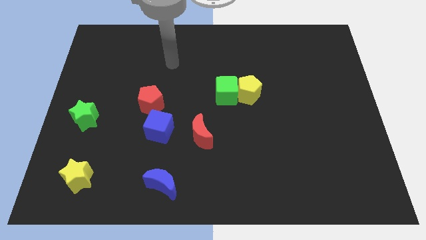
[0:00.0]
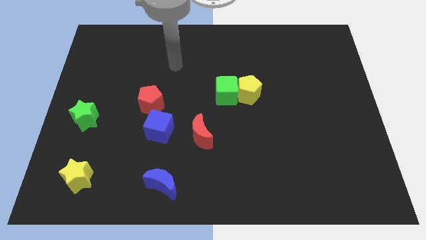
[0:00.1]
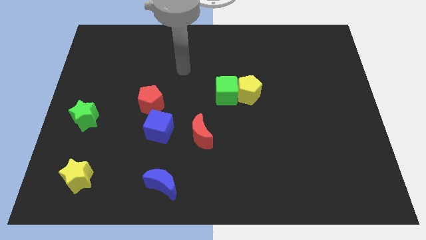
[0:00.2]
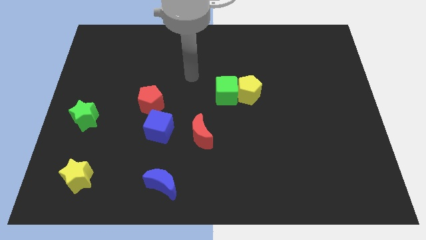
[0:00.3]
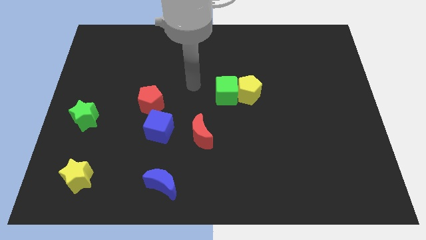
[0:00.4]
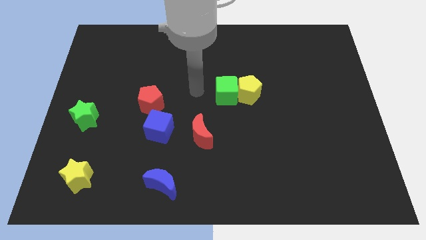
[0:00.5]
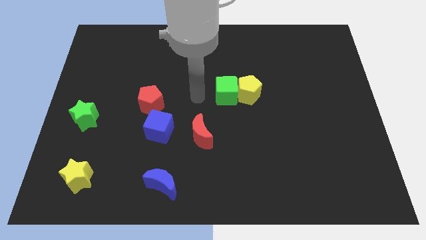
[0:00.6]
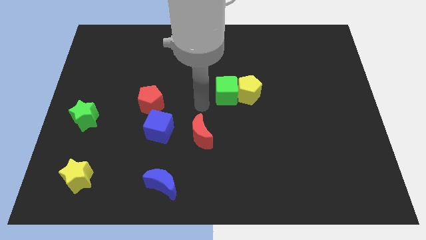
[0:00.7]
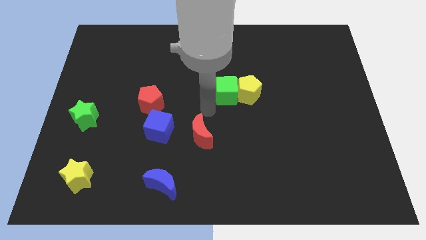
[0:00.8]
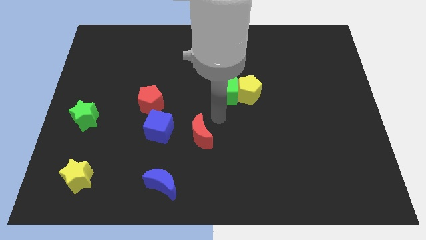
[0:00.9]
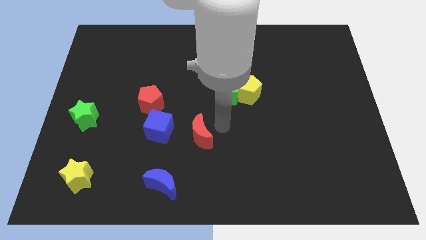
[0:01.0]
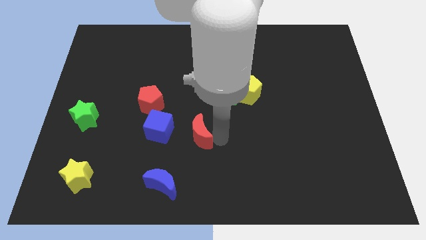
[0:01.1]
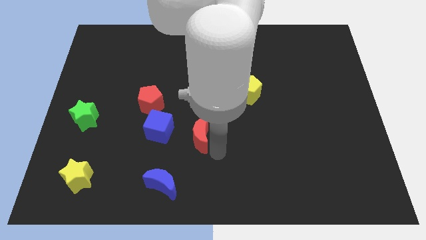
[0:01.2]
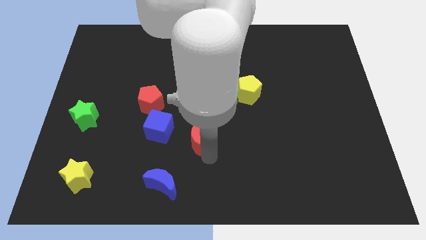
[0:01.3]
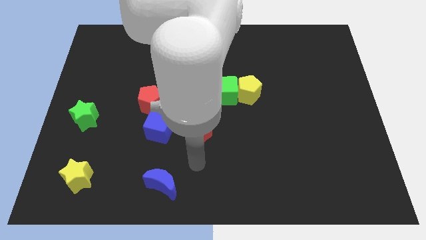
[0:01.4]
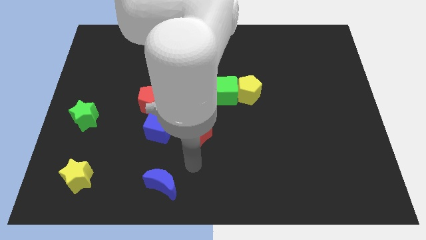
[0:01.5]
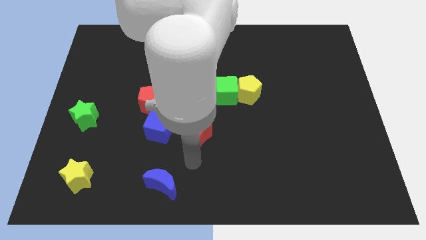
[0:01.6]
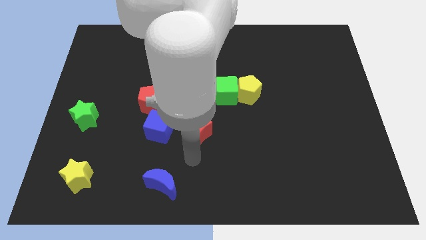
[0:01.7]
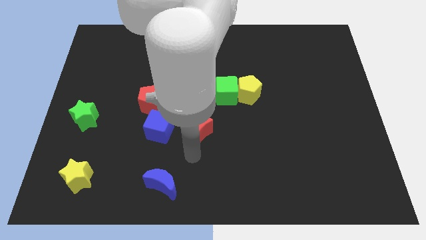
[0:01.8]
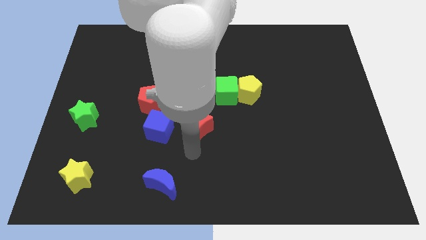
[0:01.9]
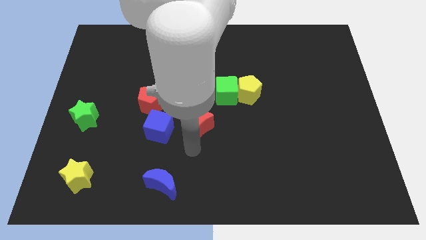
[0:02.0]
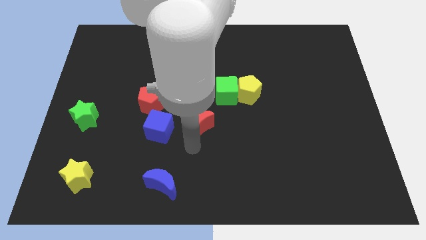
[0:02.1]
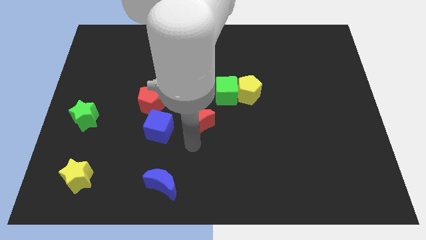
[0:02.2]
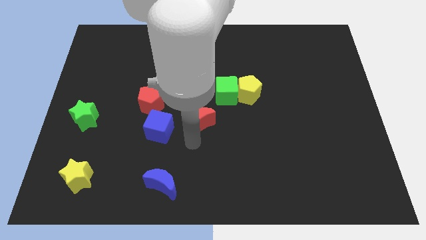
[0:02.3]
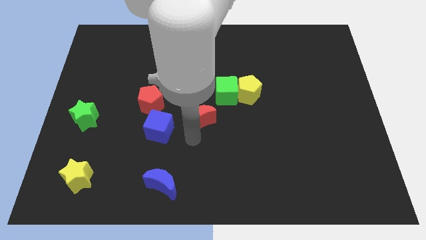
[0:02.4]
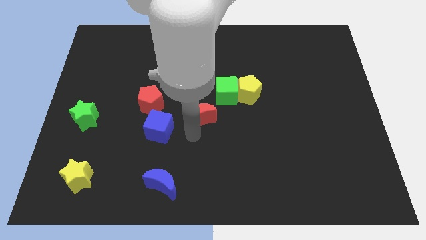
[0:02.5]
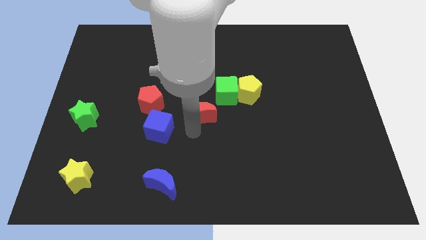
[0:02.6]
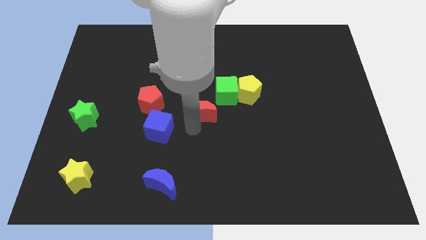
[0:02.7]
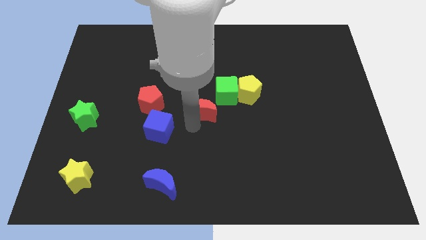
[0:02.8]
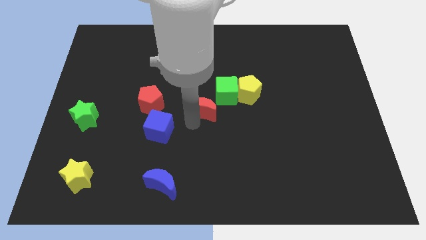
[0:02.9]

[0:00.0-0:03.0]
slightly slide the red moon upwards

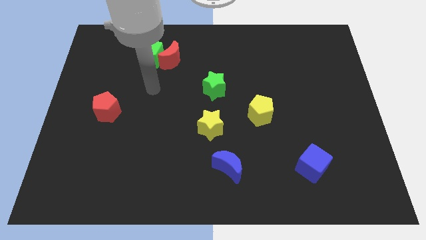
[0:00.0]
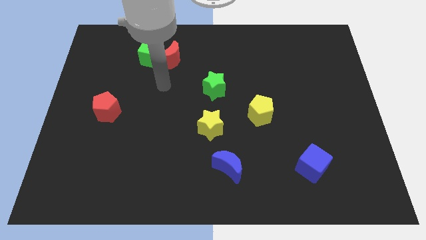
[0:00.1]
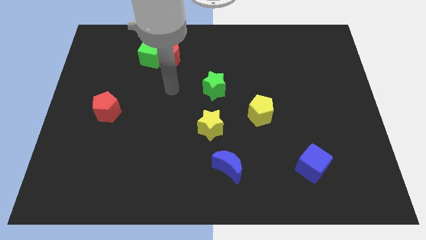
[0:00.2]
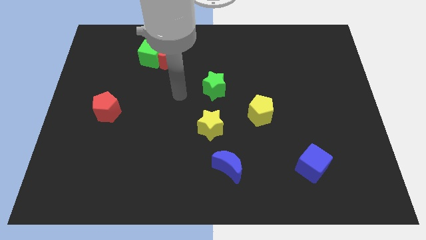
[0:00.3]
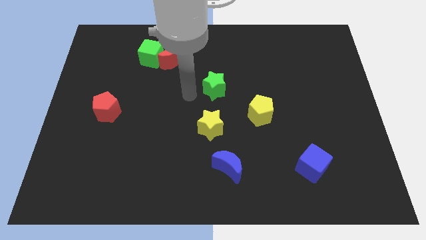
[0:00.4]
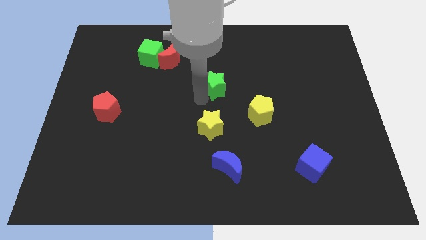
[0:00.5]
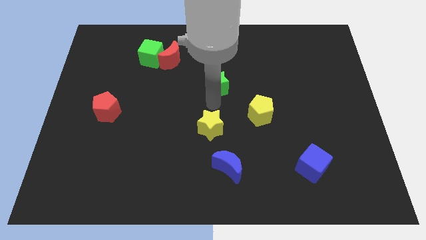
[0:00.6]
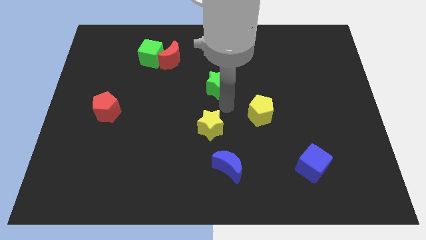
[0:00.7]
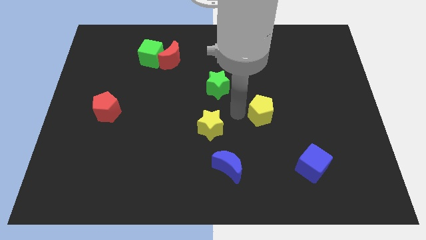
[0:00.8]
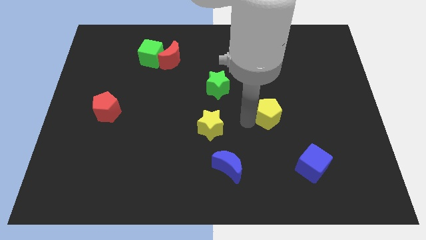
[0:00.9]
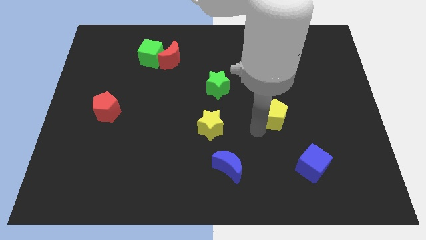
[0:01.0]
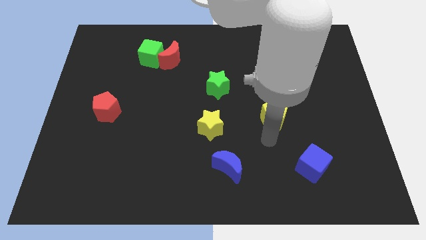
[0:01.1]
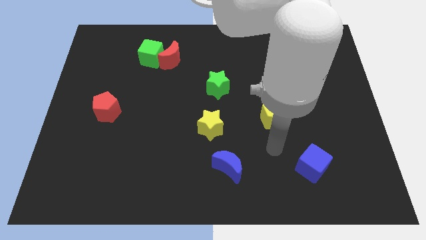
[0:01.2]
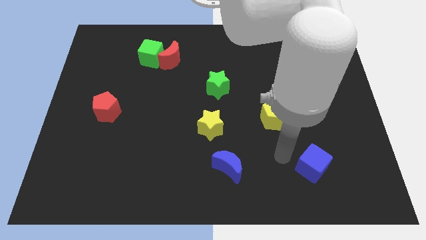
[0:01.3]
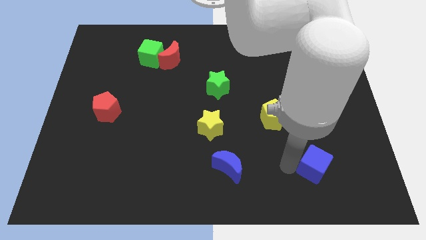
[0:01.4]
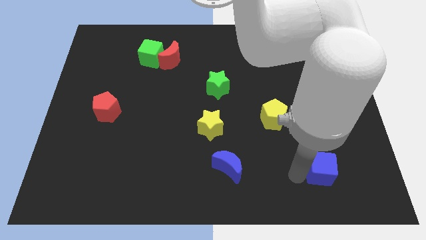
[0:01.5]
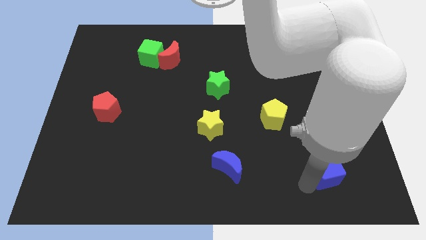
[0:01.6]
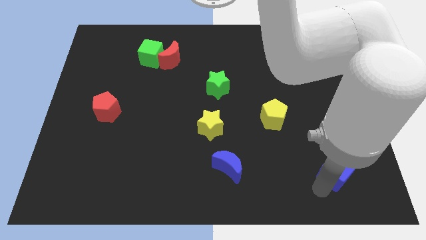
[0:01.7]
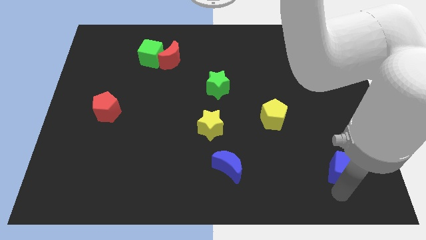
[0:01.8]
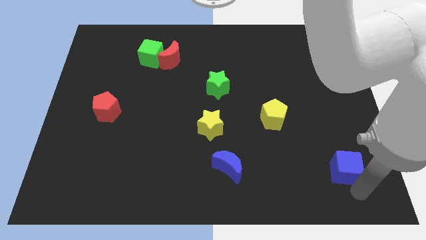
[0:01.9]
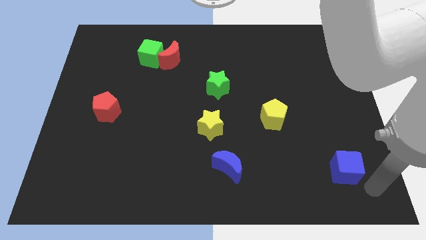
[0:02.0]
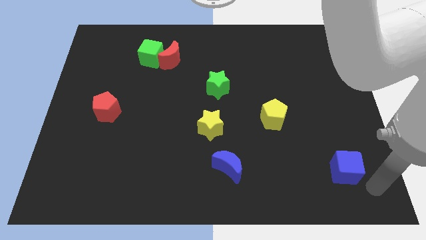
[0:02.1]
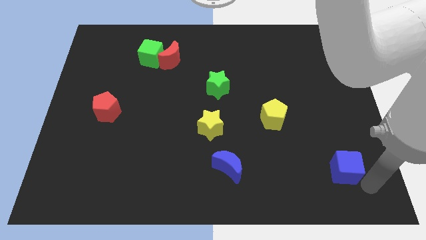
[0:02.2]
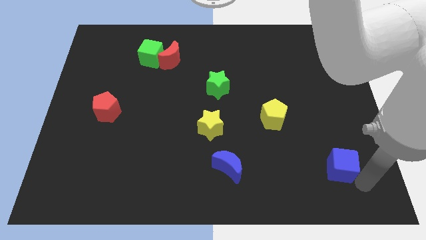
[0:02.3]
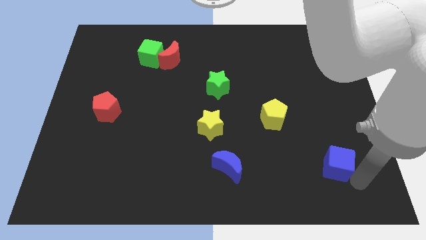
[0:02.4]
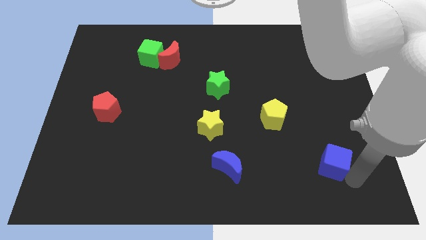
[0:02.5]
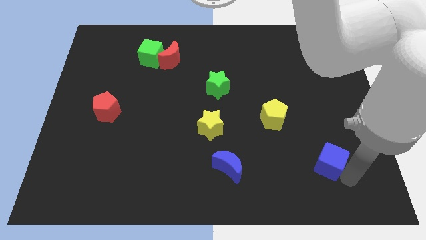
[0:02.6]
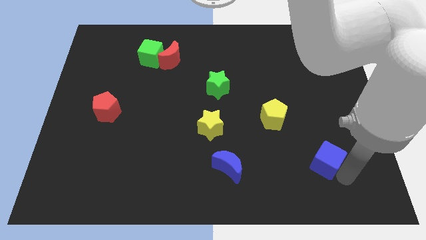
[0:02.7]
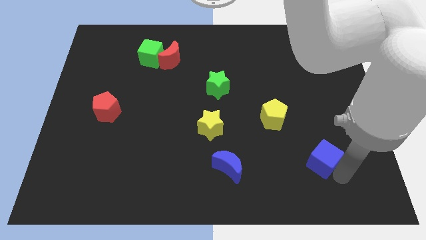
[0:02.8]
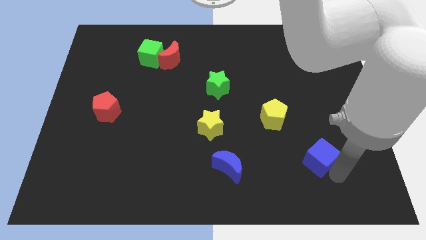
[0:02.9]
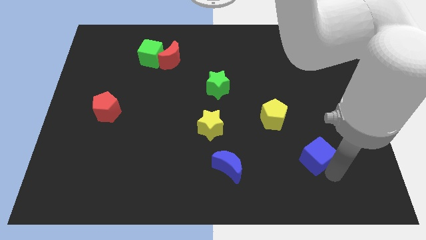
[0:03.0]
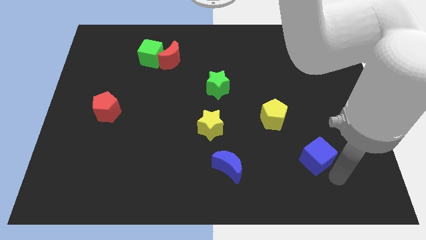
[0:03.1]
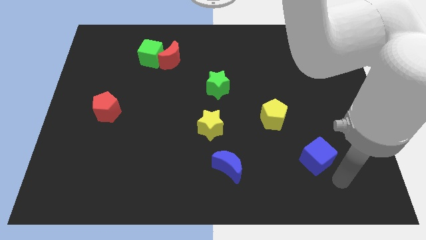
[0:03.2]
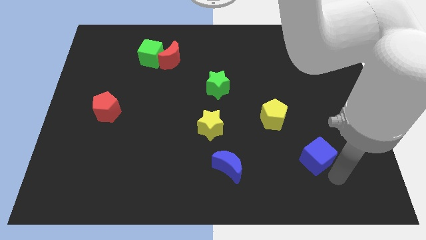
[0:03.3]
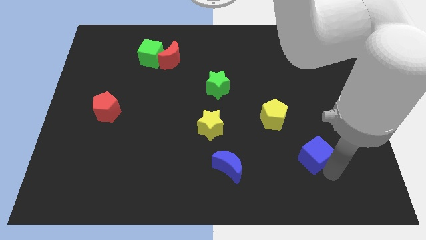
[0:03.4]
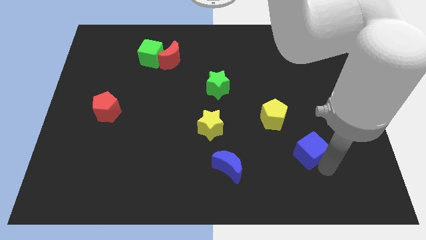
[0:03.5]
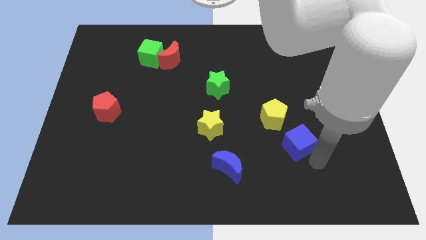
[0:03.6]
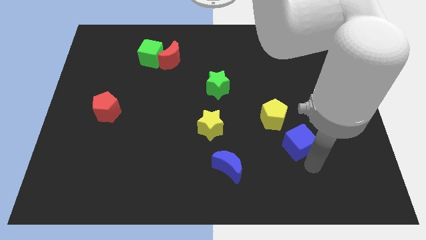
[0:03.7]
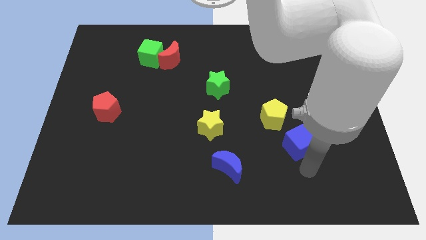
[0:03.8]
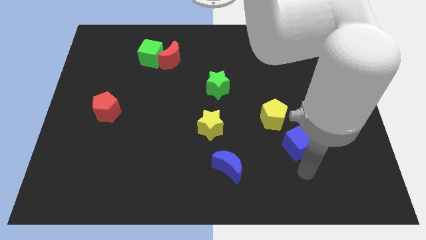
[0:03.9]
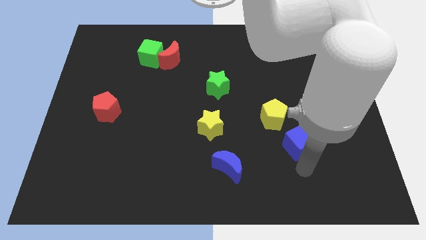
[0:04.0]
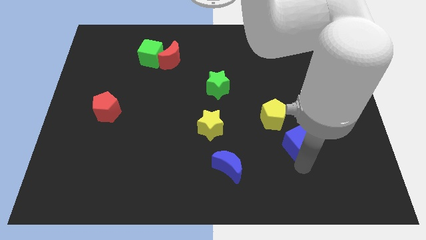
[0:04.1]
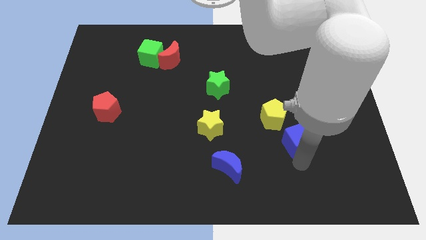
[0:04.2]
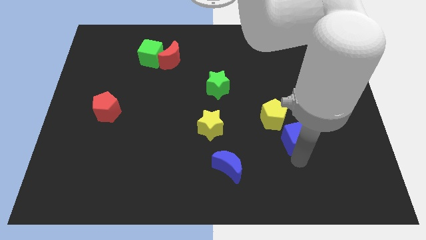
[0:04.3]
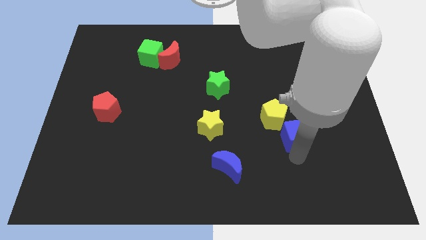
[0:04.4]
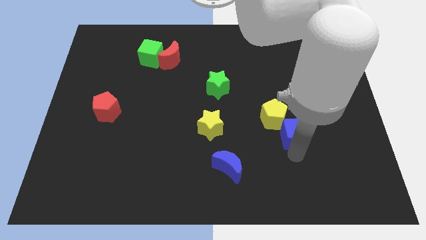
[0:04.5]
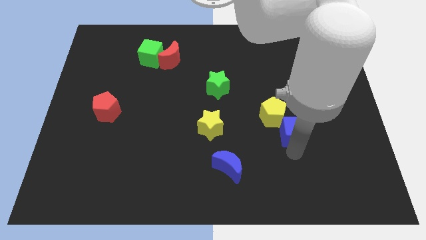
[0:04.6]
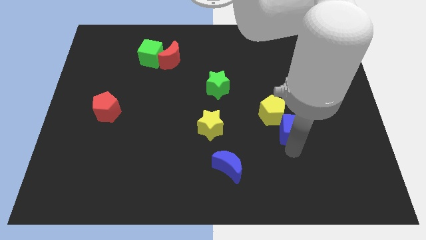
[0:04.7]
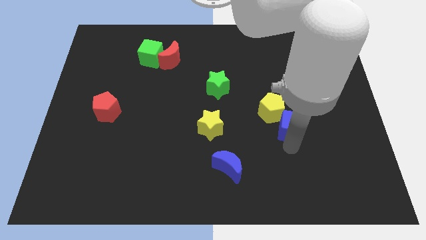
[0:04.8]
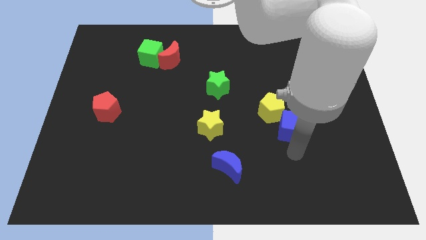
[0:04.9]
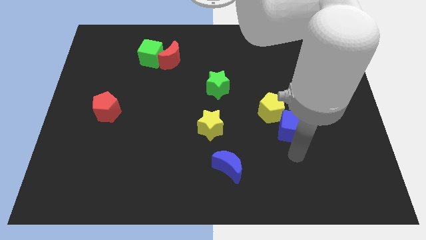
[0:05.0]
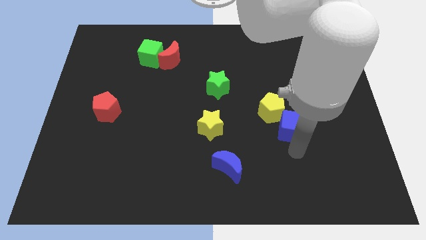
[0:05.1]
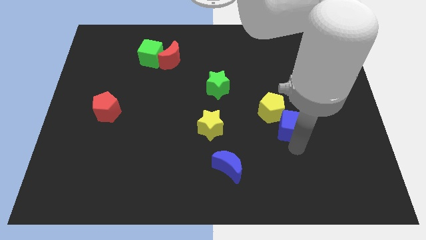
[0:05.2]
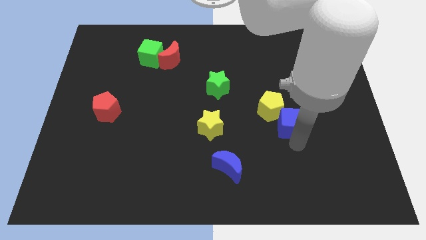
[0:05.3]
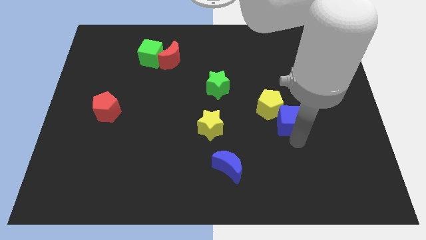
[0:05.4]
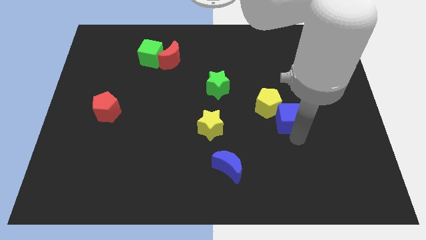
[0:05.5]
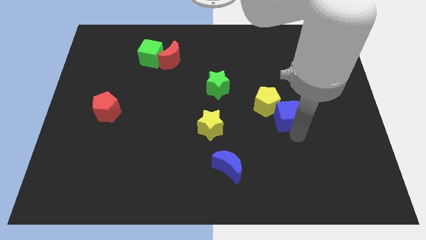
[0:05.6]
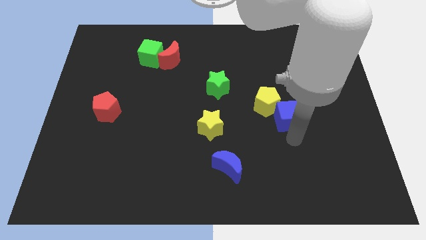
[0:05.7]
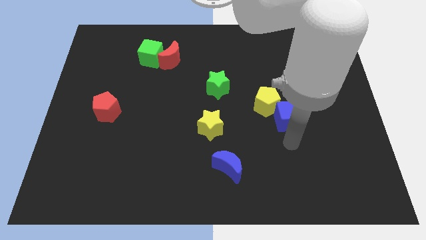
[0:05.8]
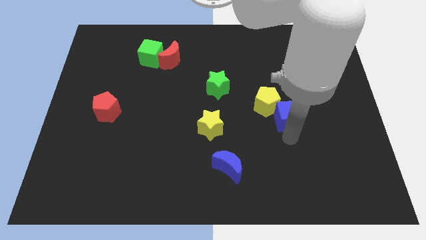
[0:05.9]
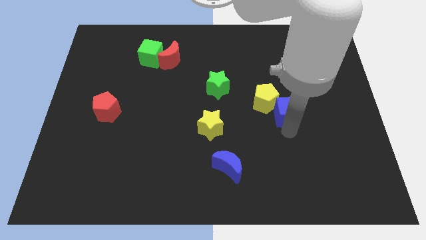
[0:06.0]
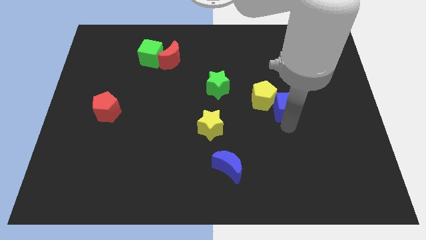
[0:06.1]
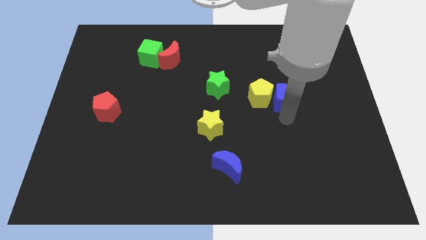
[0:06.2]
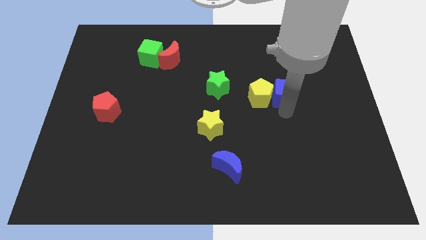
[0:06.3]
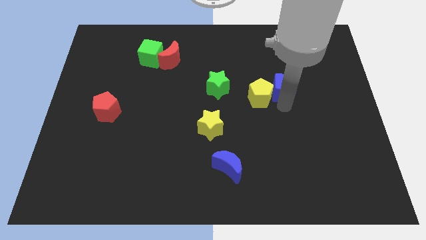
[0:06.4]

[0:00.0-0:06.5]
move the blue cube up
